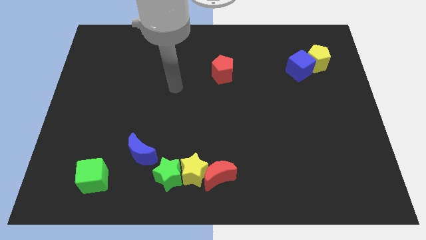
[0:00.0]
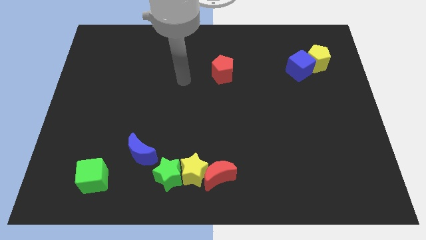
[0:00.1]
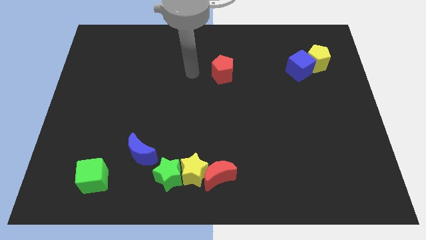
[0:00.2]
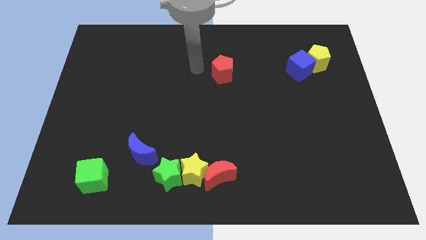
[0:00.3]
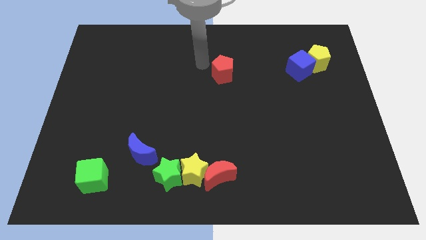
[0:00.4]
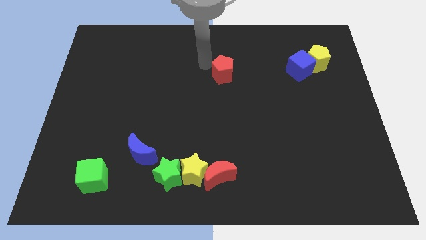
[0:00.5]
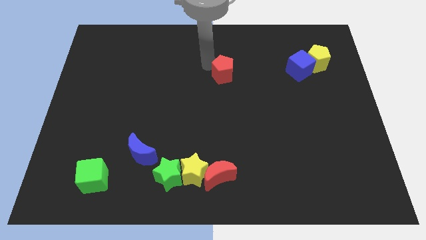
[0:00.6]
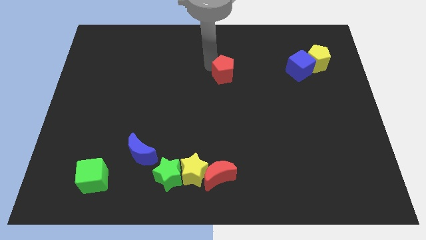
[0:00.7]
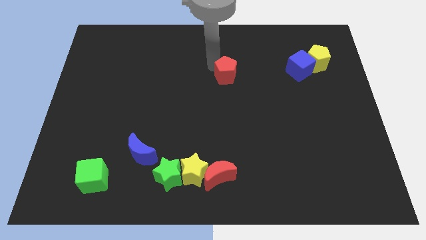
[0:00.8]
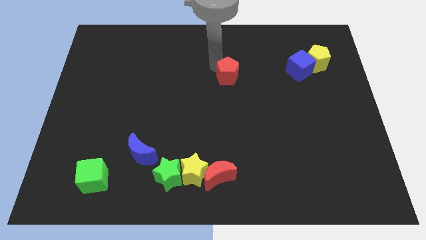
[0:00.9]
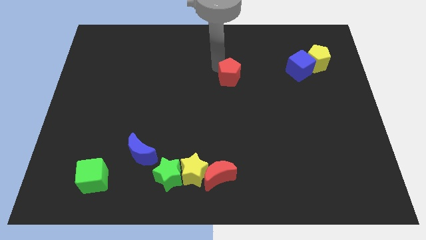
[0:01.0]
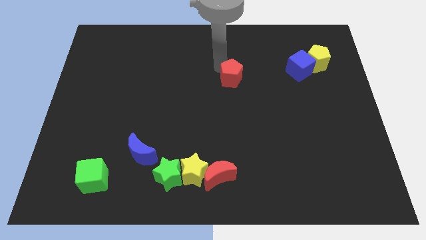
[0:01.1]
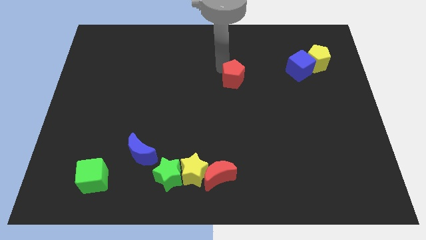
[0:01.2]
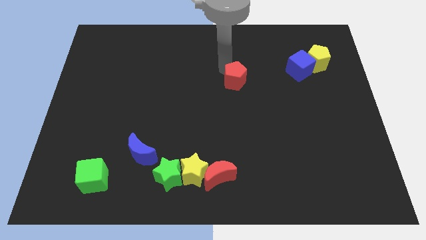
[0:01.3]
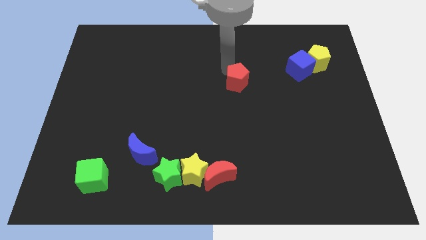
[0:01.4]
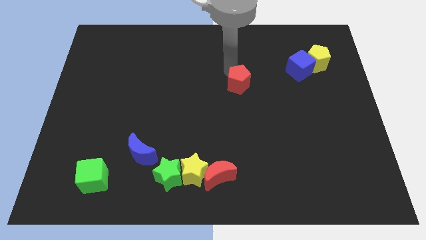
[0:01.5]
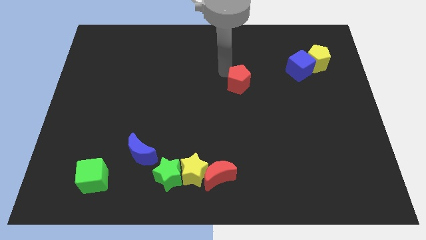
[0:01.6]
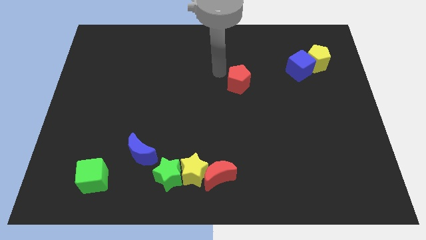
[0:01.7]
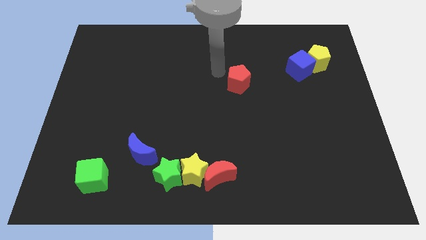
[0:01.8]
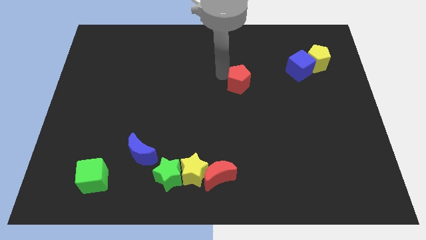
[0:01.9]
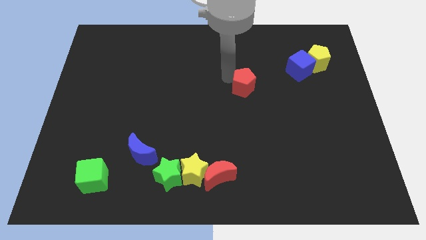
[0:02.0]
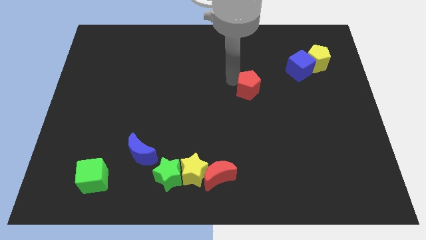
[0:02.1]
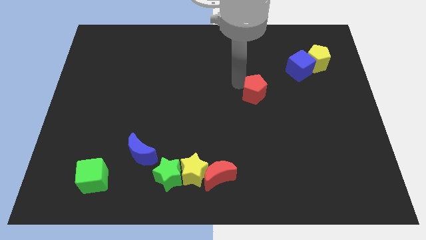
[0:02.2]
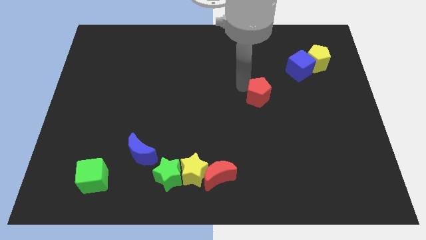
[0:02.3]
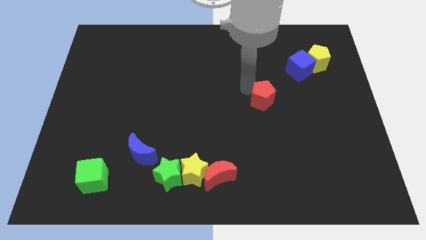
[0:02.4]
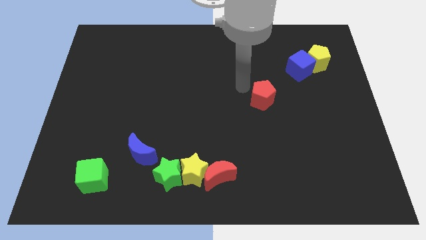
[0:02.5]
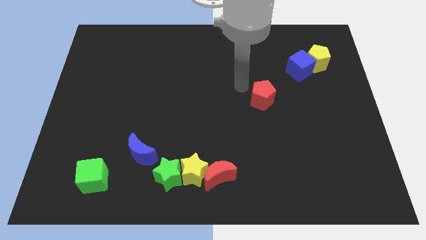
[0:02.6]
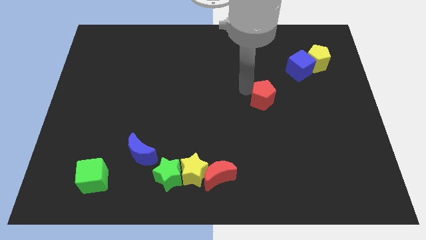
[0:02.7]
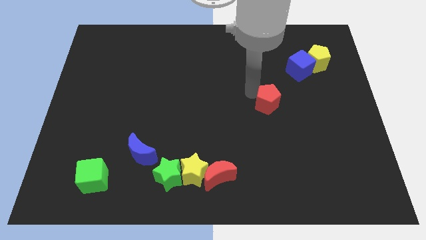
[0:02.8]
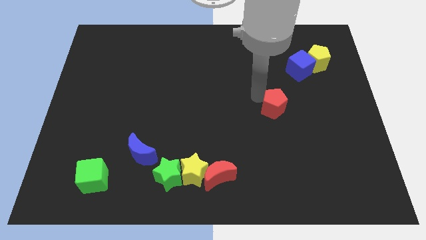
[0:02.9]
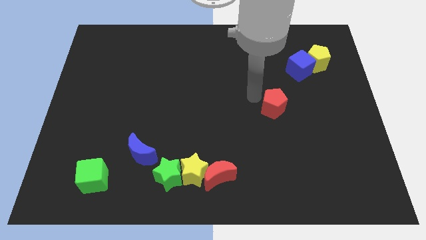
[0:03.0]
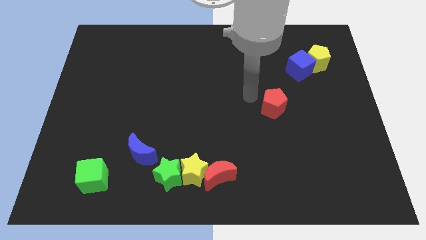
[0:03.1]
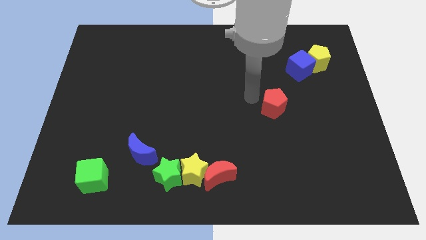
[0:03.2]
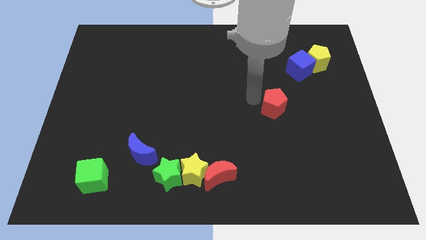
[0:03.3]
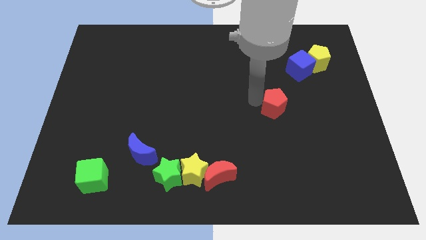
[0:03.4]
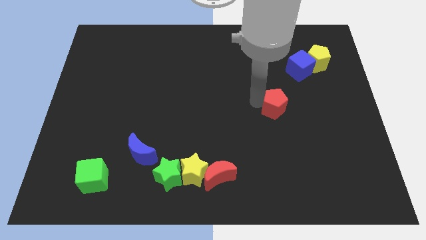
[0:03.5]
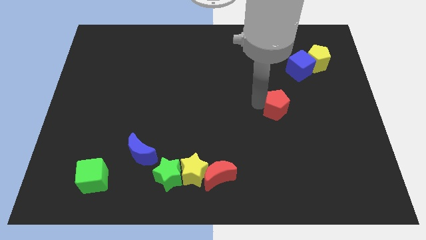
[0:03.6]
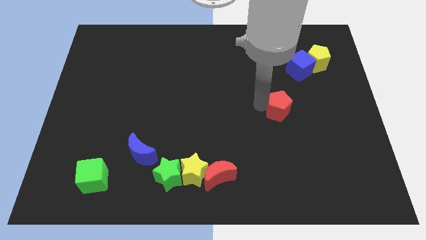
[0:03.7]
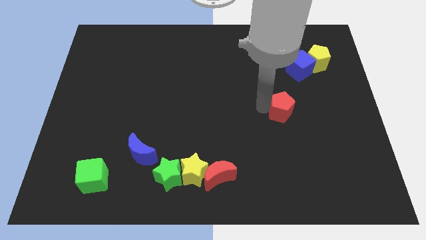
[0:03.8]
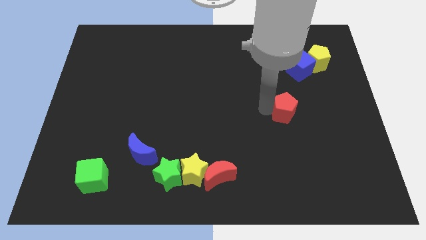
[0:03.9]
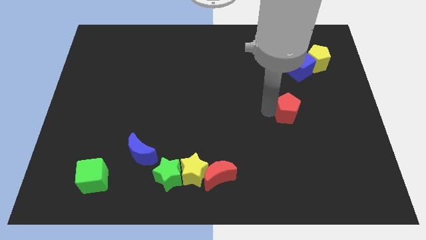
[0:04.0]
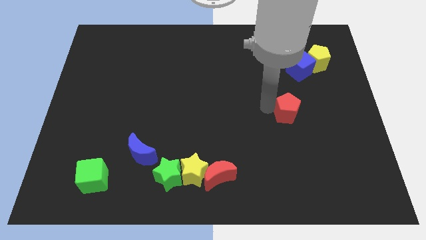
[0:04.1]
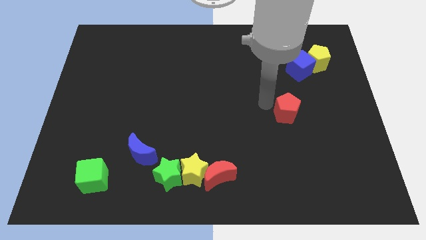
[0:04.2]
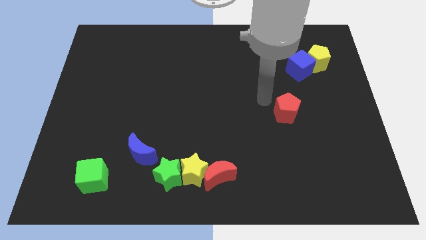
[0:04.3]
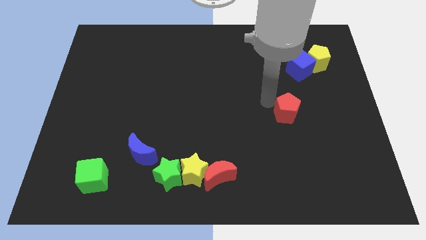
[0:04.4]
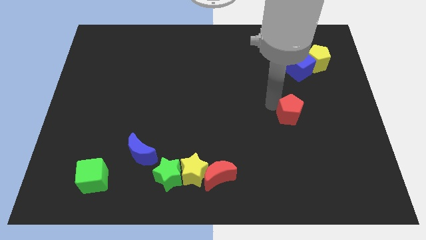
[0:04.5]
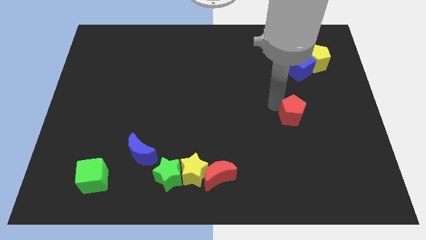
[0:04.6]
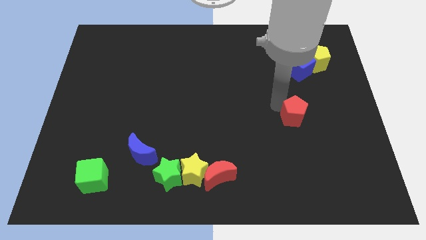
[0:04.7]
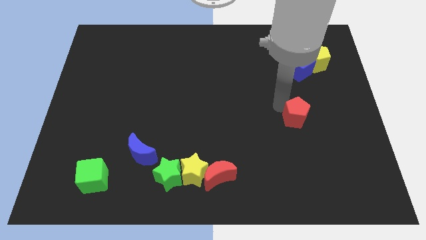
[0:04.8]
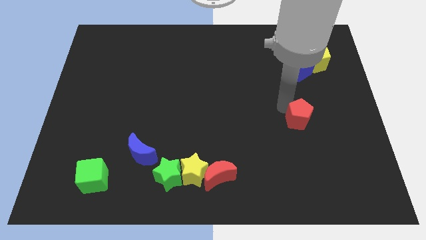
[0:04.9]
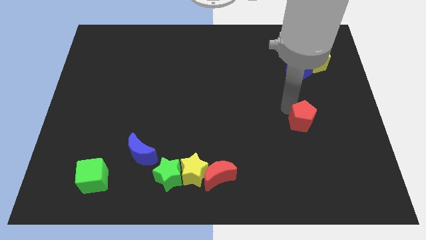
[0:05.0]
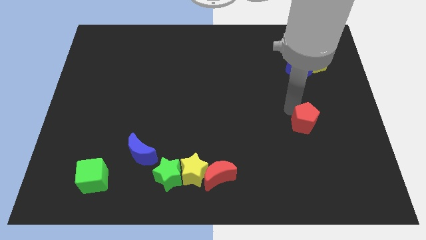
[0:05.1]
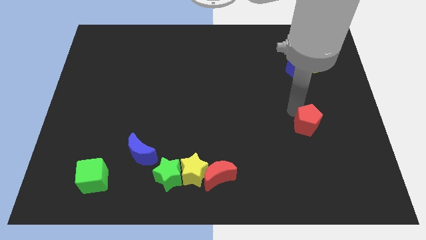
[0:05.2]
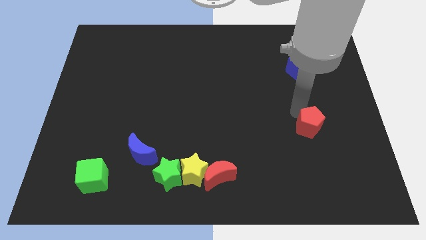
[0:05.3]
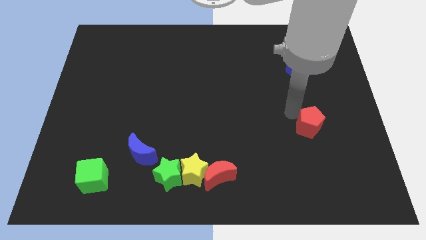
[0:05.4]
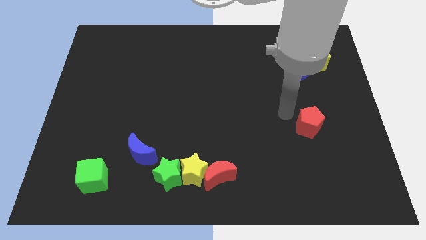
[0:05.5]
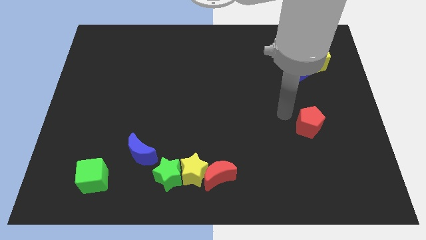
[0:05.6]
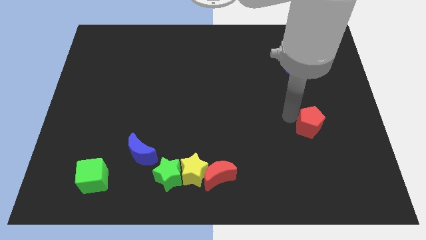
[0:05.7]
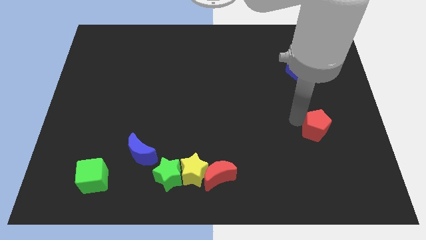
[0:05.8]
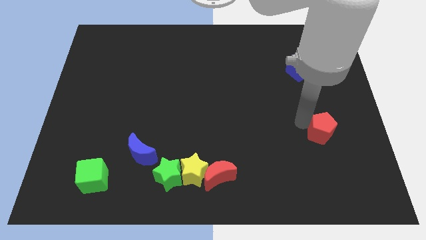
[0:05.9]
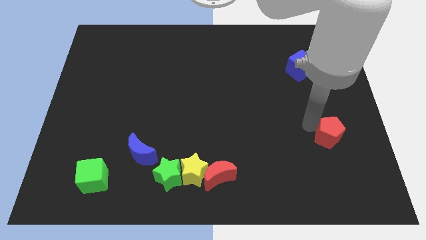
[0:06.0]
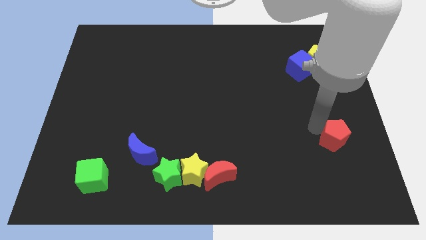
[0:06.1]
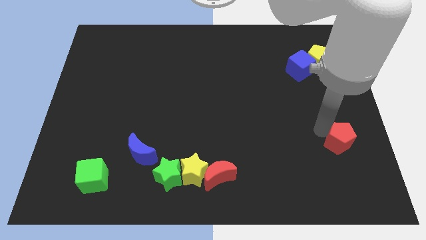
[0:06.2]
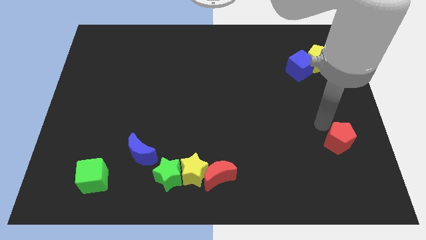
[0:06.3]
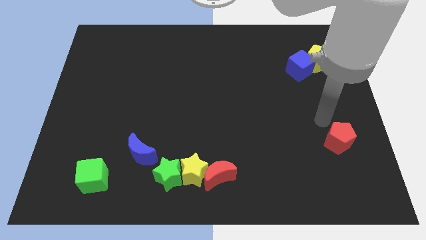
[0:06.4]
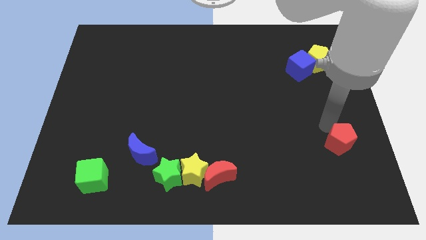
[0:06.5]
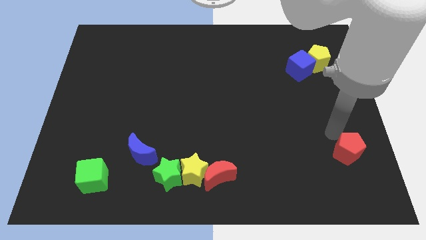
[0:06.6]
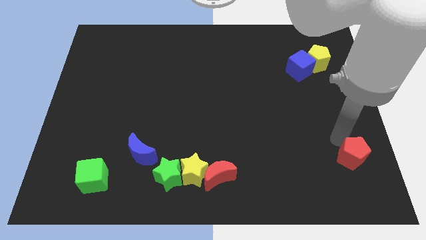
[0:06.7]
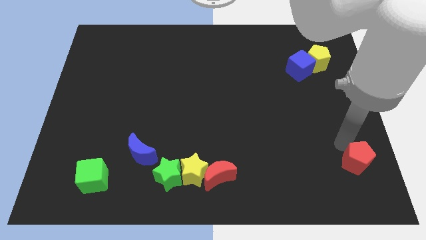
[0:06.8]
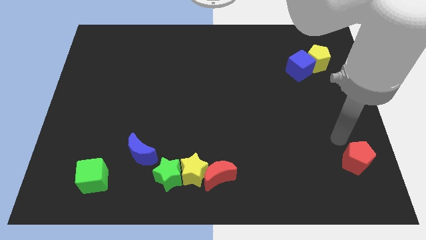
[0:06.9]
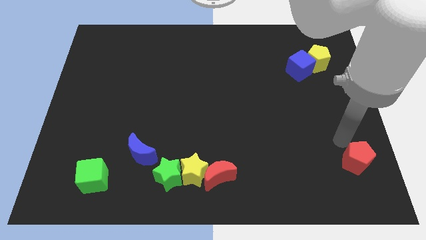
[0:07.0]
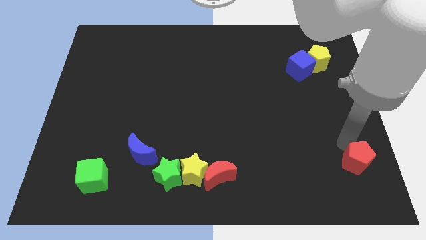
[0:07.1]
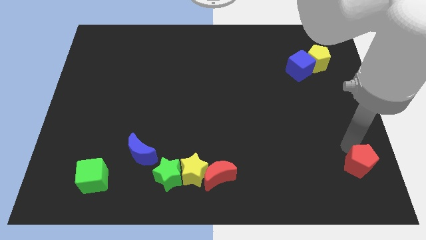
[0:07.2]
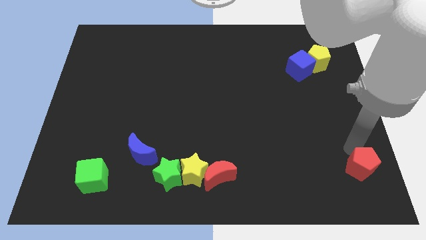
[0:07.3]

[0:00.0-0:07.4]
put the red pentagon to the bottom right of the board
